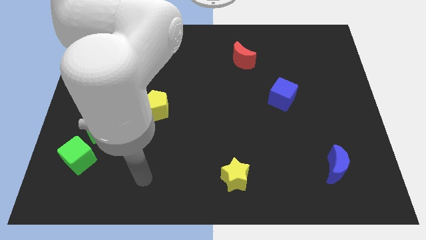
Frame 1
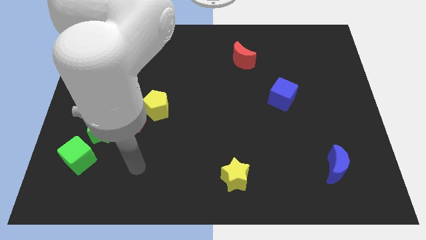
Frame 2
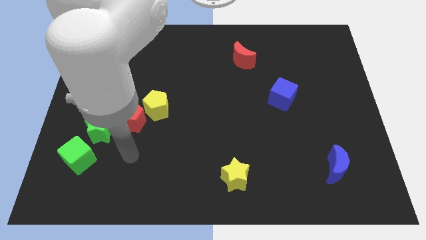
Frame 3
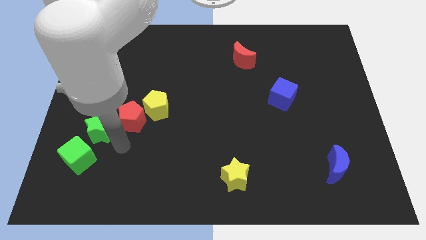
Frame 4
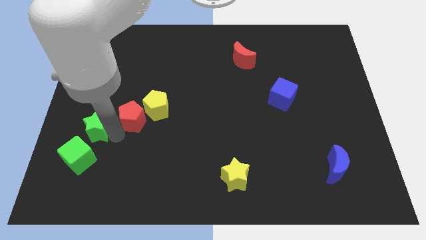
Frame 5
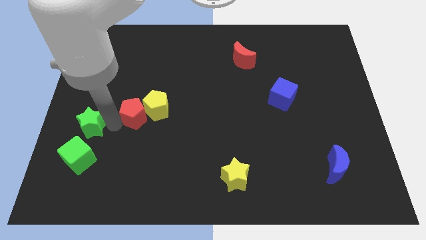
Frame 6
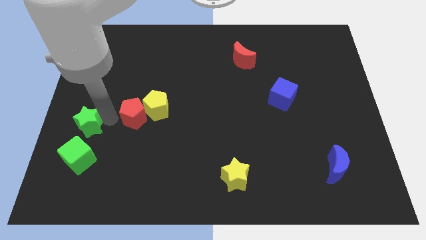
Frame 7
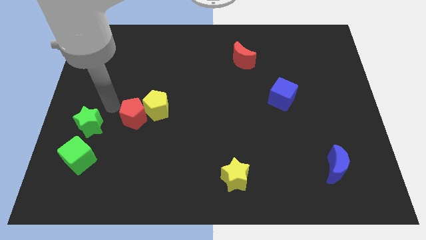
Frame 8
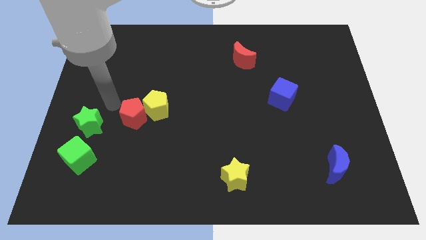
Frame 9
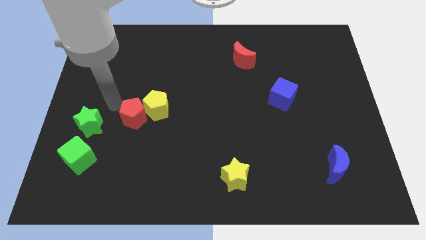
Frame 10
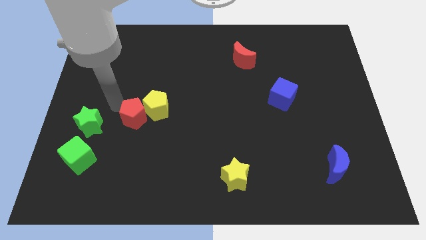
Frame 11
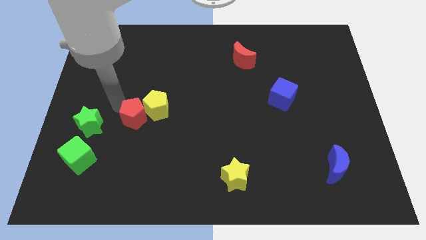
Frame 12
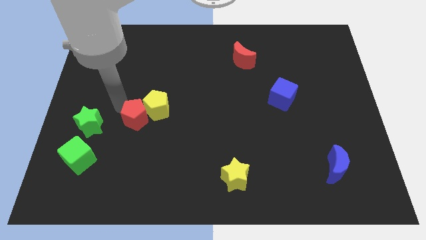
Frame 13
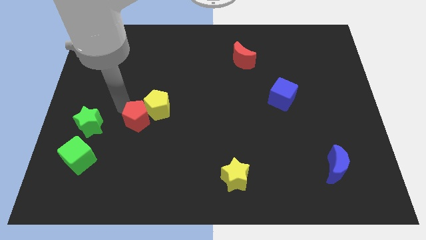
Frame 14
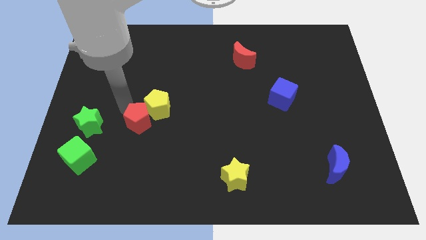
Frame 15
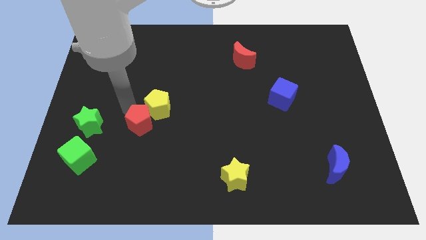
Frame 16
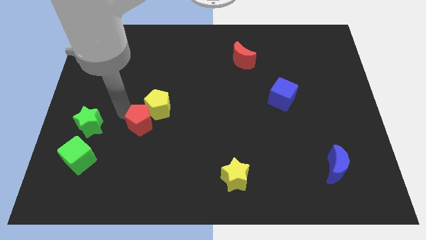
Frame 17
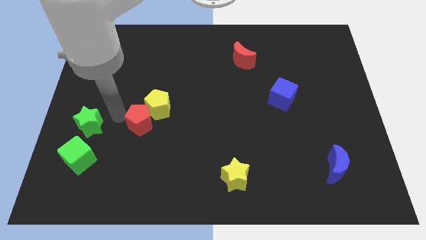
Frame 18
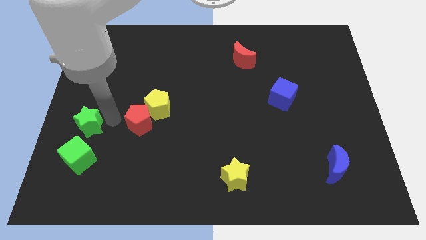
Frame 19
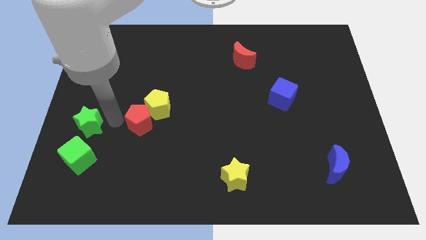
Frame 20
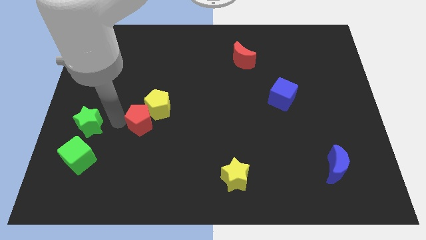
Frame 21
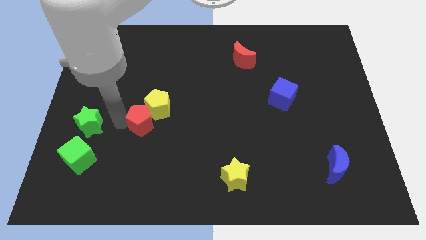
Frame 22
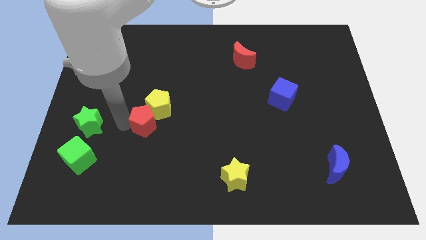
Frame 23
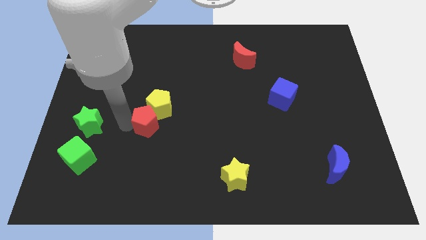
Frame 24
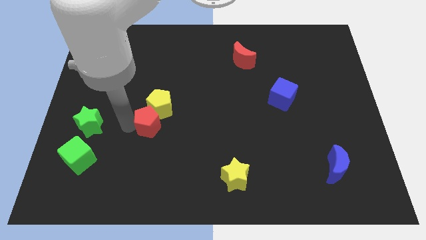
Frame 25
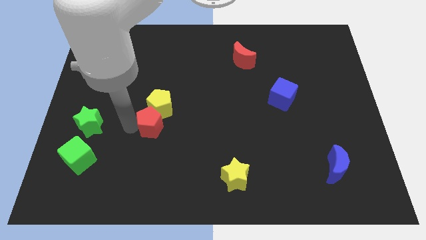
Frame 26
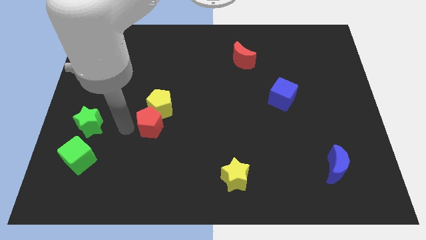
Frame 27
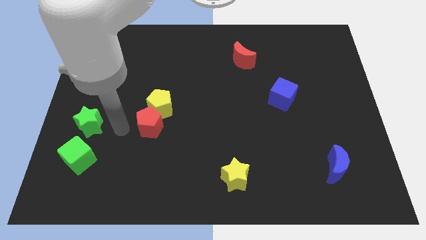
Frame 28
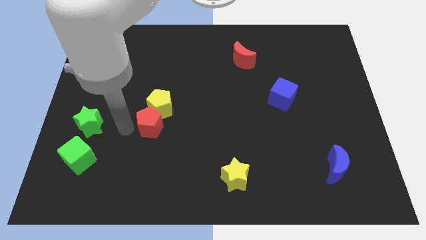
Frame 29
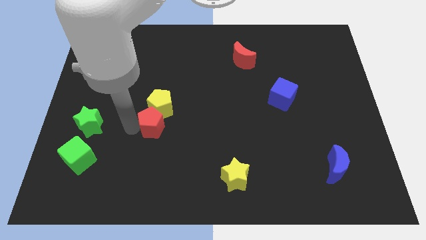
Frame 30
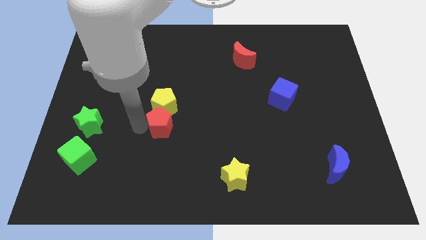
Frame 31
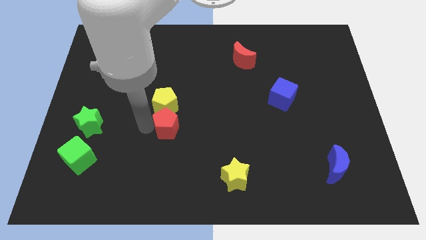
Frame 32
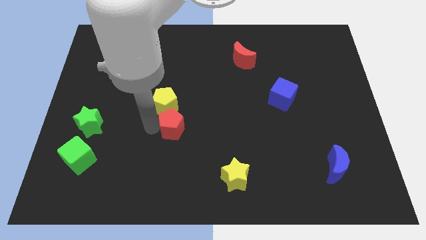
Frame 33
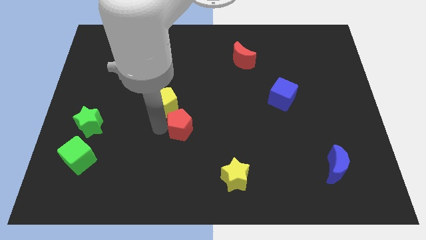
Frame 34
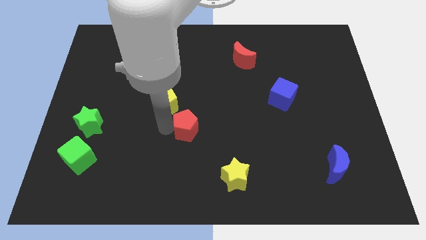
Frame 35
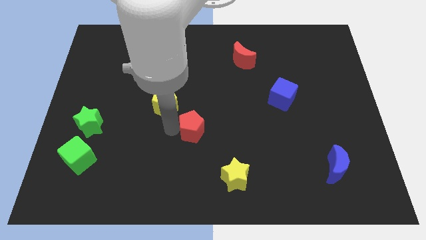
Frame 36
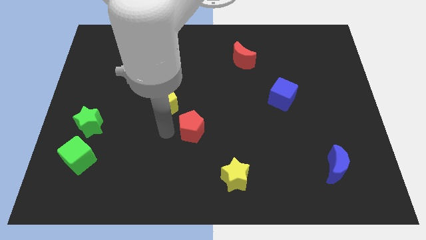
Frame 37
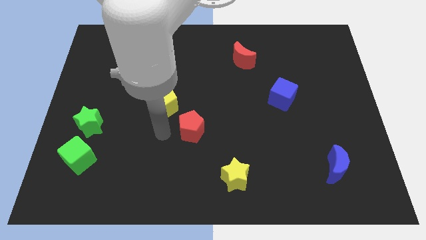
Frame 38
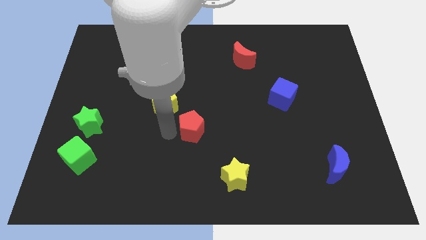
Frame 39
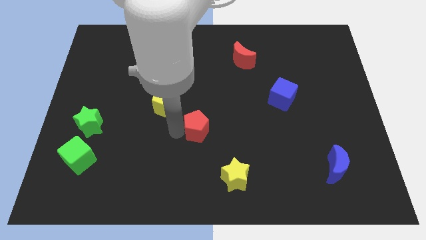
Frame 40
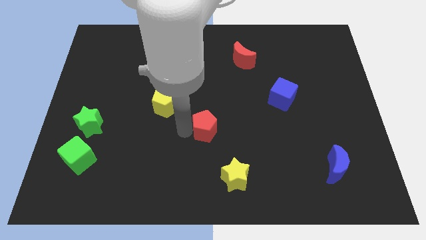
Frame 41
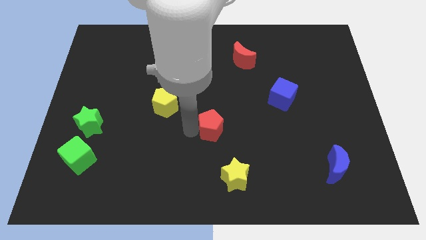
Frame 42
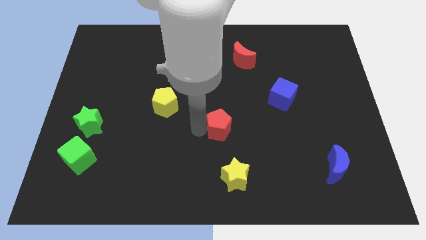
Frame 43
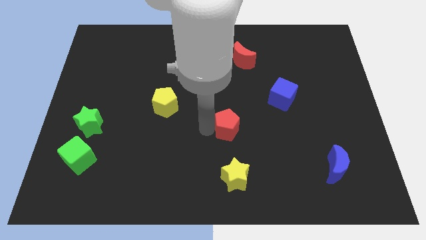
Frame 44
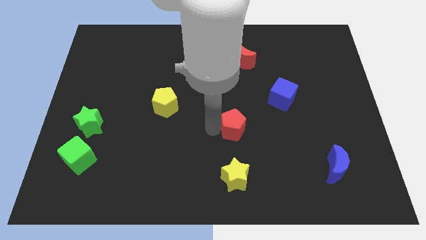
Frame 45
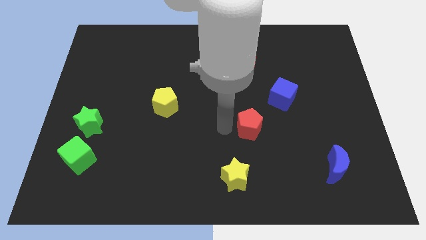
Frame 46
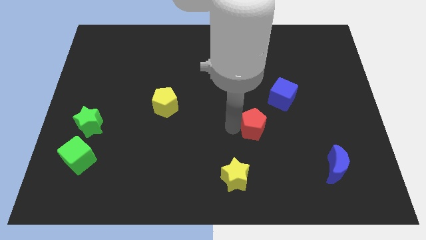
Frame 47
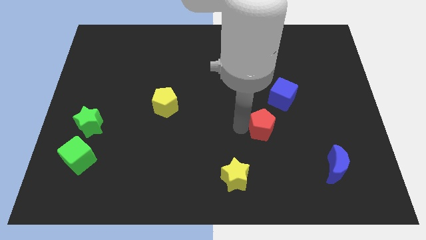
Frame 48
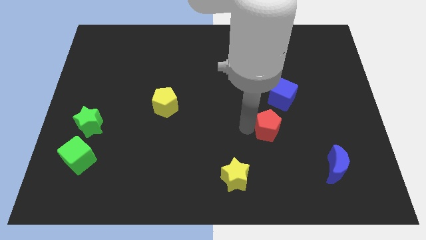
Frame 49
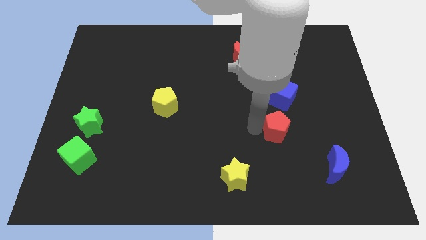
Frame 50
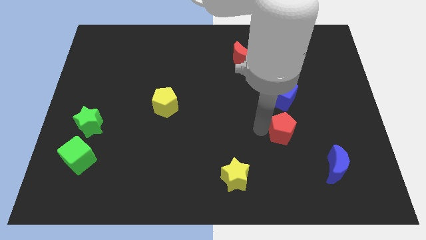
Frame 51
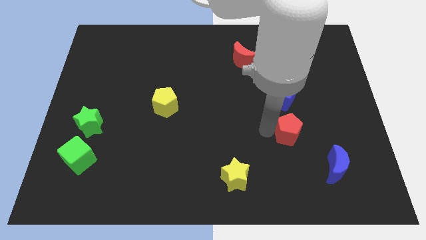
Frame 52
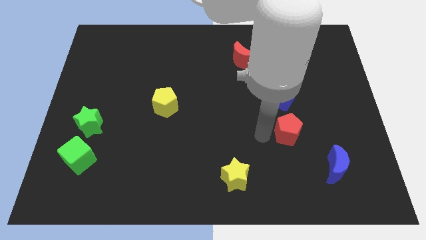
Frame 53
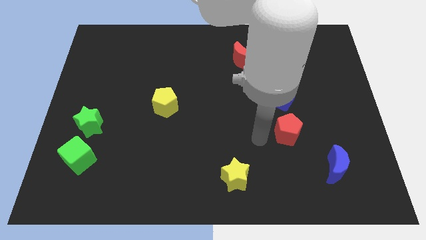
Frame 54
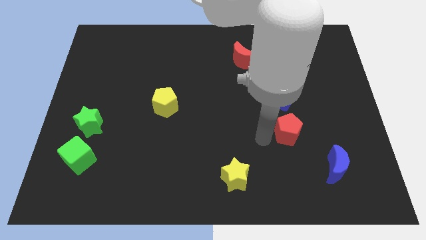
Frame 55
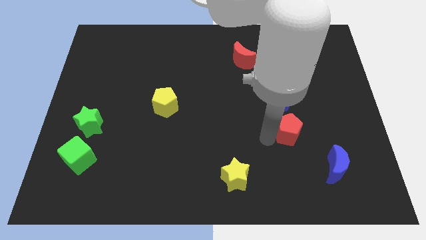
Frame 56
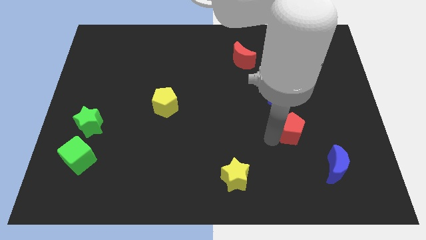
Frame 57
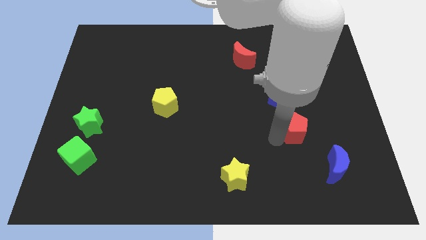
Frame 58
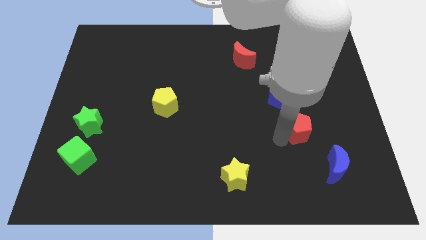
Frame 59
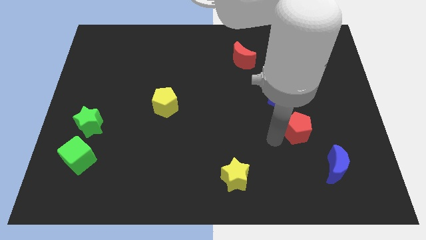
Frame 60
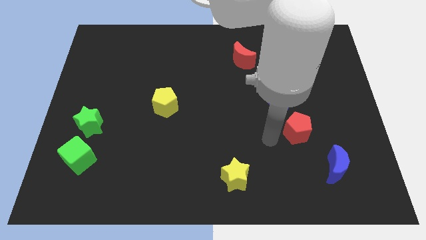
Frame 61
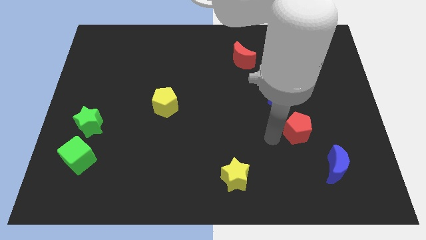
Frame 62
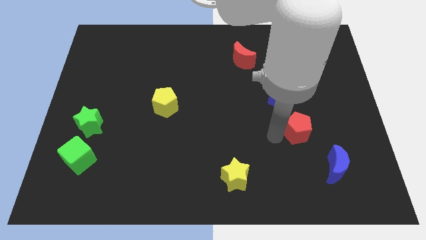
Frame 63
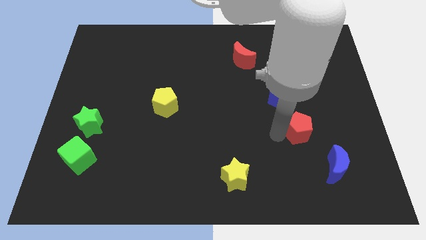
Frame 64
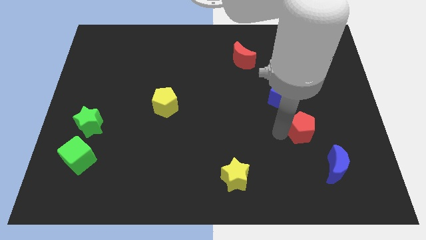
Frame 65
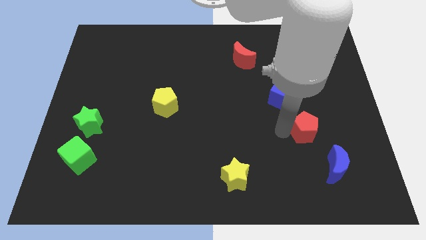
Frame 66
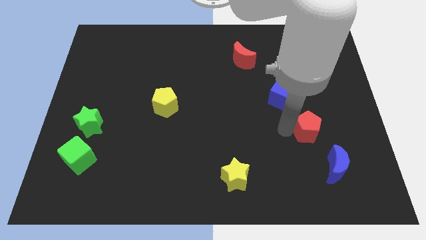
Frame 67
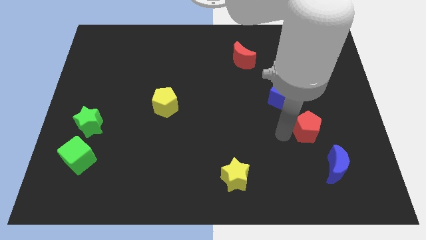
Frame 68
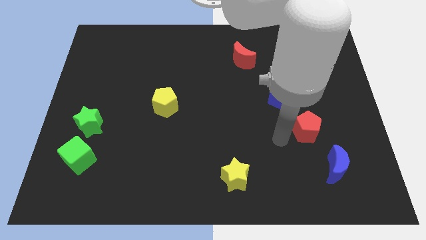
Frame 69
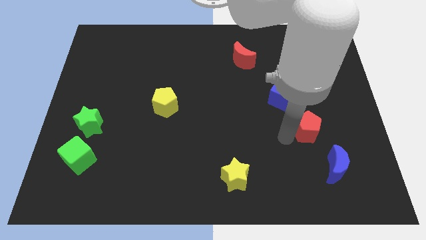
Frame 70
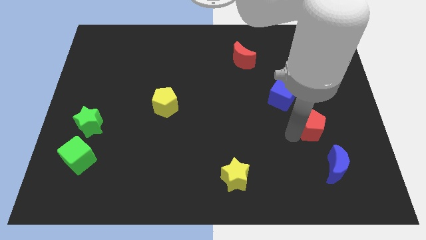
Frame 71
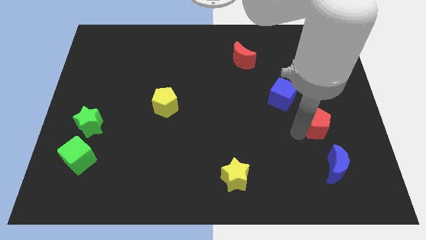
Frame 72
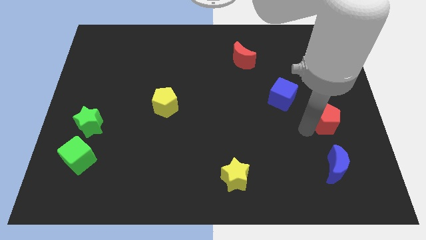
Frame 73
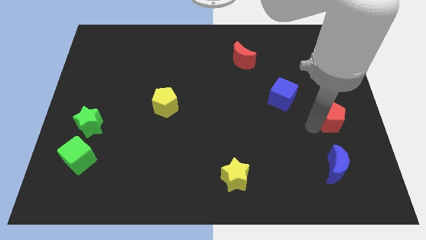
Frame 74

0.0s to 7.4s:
move the red pentagon to the right side

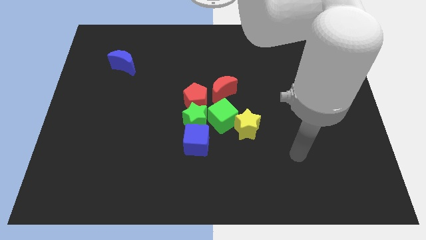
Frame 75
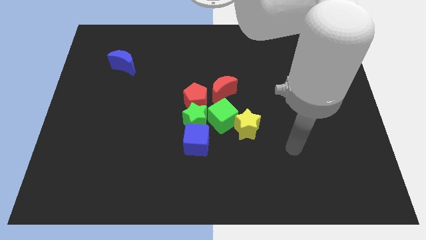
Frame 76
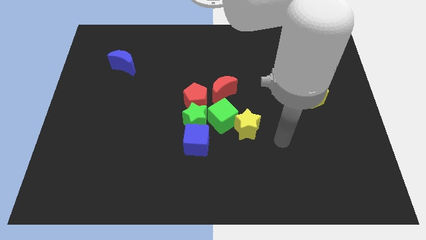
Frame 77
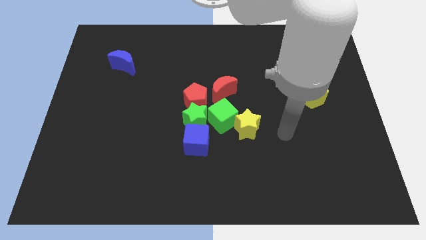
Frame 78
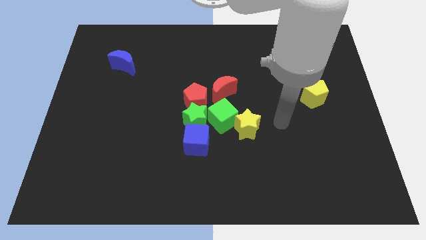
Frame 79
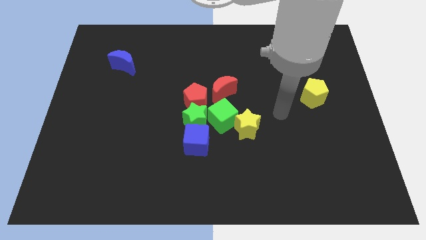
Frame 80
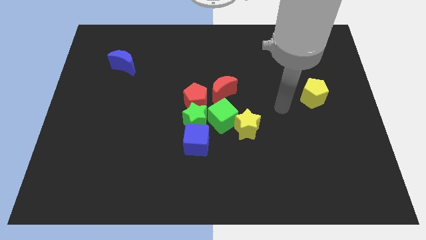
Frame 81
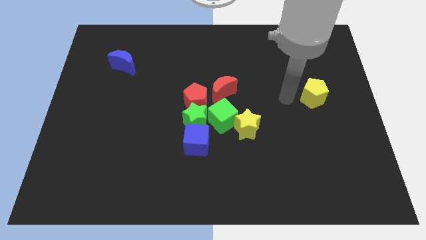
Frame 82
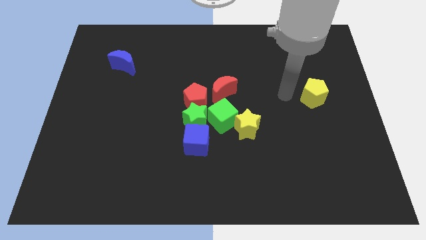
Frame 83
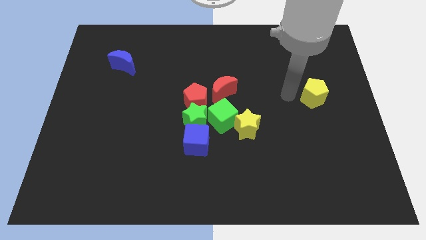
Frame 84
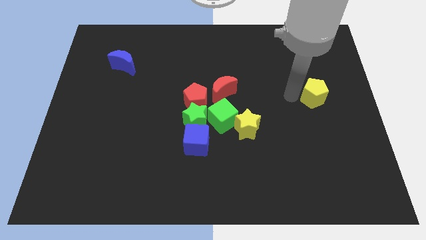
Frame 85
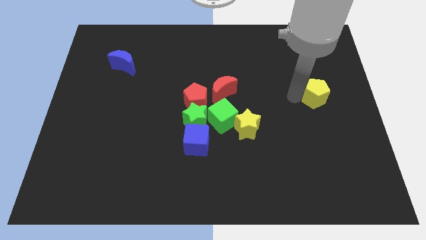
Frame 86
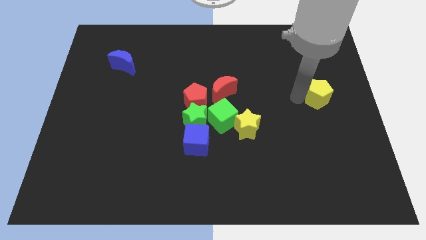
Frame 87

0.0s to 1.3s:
push the yellow pentagon to the center right
